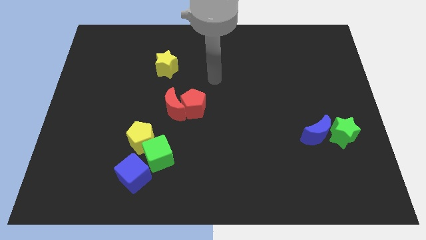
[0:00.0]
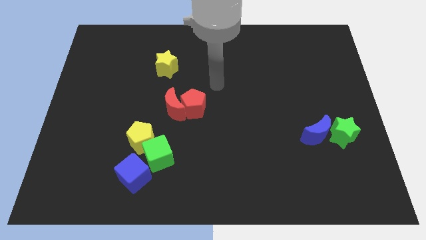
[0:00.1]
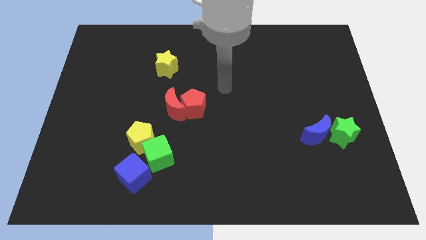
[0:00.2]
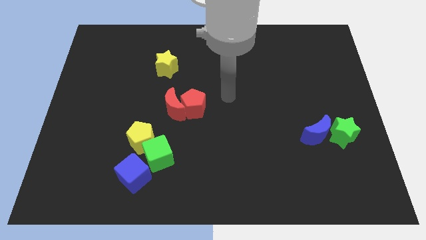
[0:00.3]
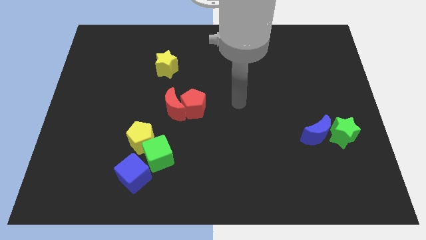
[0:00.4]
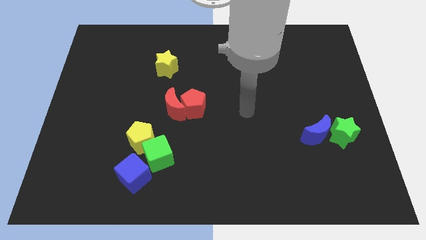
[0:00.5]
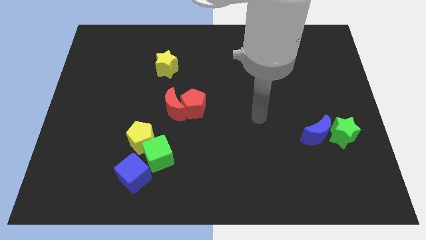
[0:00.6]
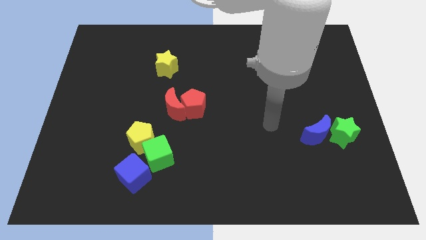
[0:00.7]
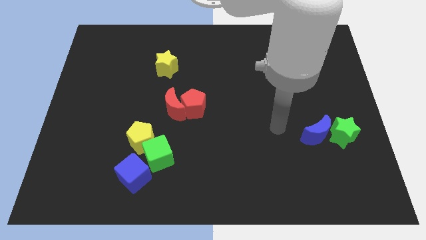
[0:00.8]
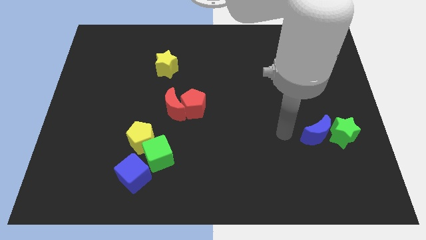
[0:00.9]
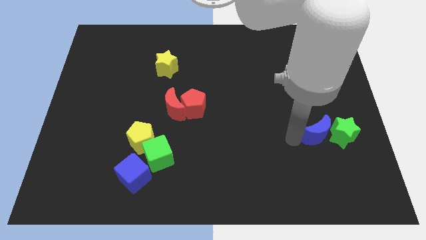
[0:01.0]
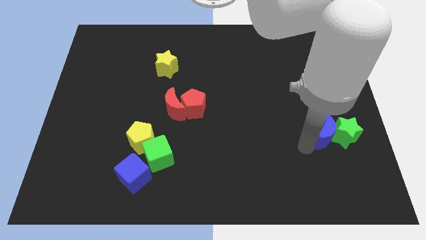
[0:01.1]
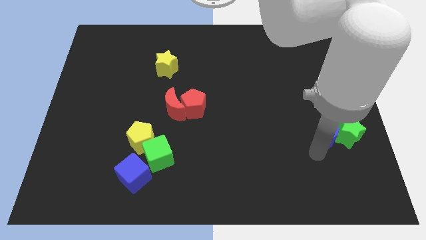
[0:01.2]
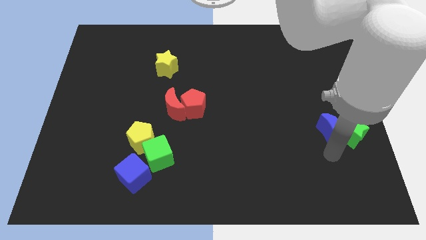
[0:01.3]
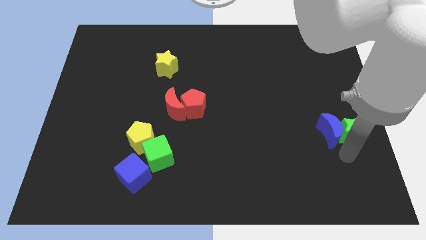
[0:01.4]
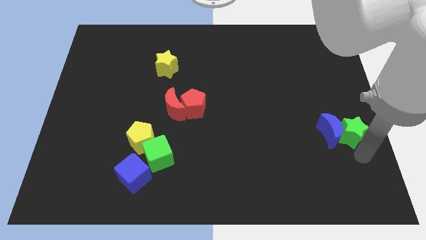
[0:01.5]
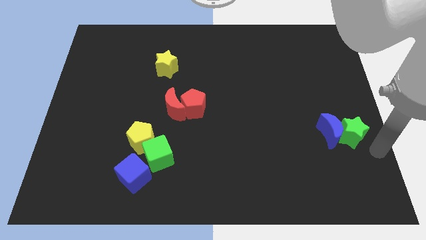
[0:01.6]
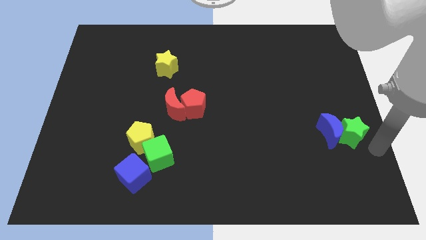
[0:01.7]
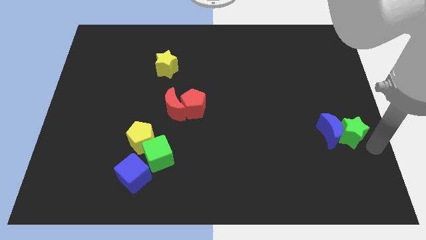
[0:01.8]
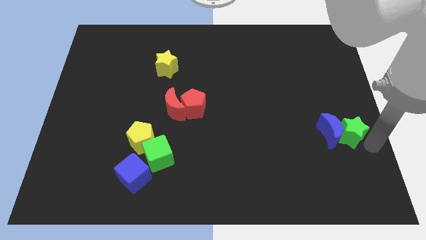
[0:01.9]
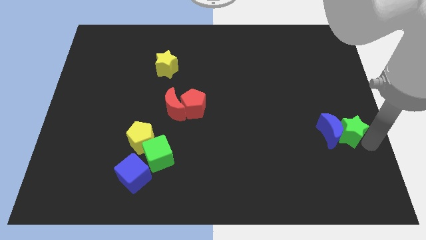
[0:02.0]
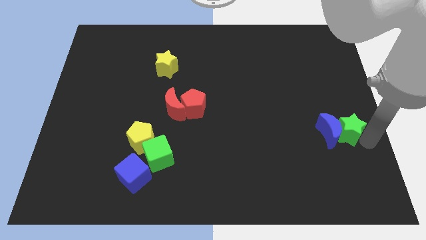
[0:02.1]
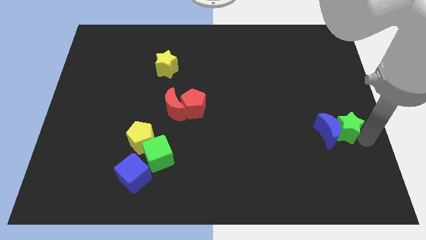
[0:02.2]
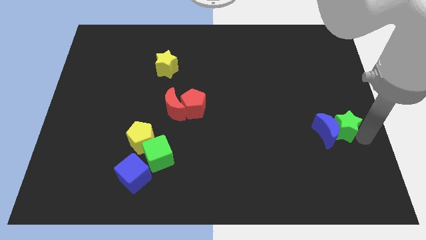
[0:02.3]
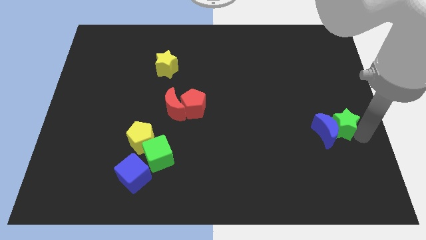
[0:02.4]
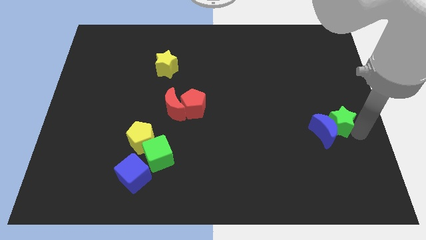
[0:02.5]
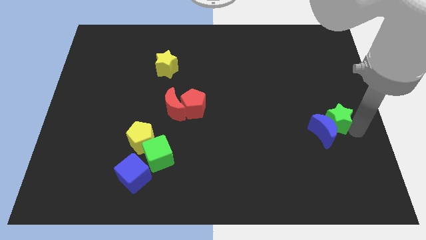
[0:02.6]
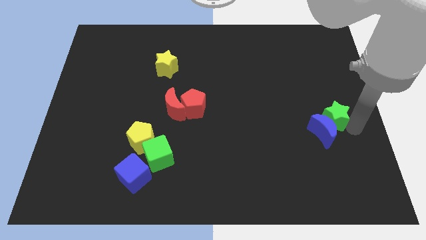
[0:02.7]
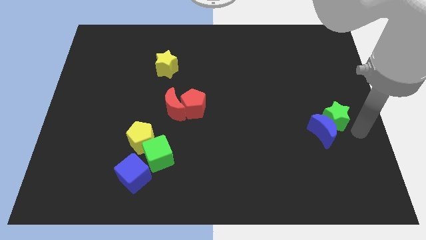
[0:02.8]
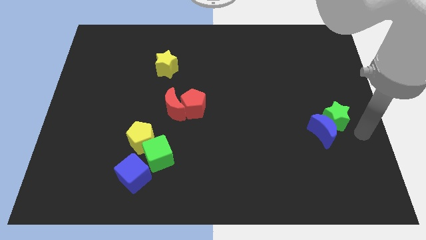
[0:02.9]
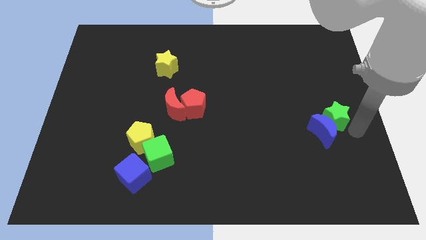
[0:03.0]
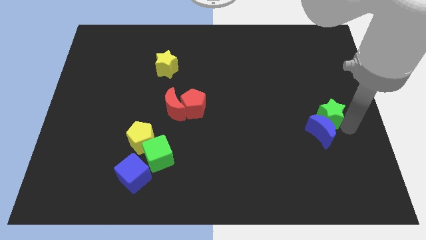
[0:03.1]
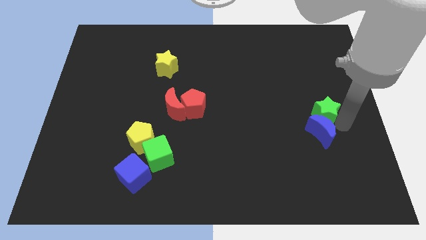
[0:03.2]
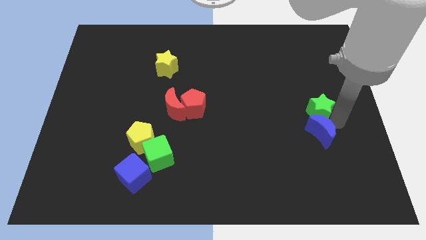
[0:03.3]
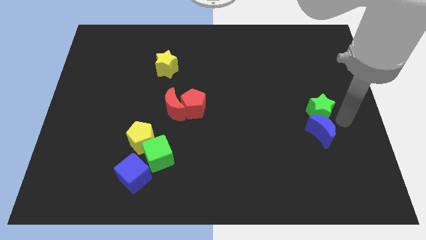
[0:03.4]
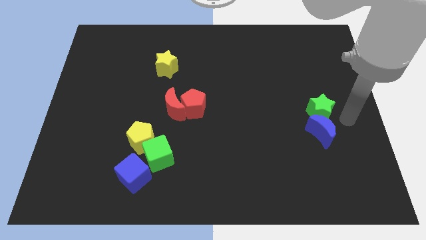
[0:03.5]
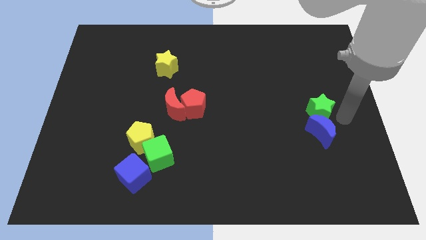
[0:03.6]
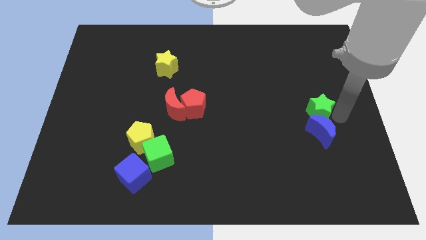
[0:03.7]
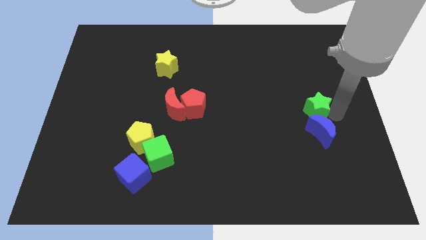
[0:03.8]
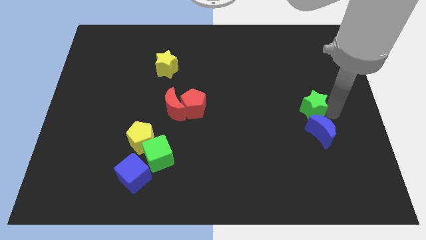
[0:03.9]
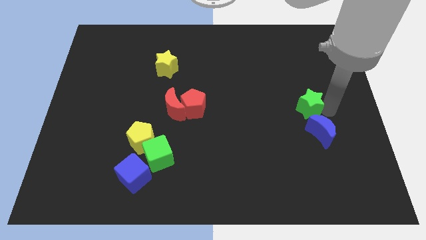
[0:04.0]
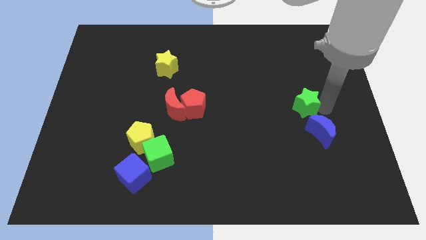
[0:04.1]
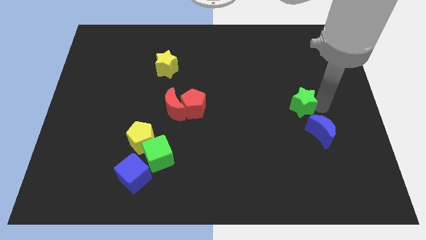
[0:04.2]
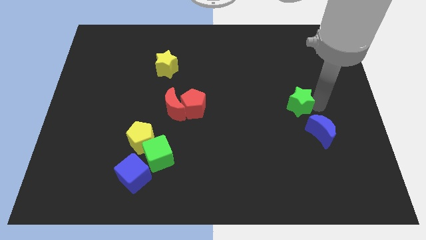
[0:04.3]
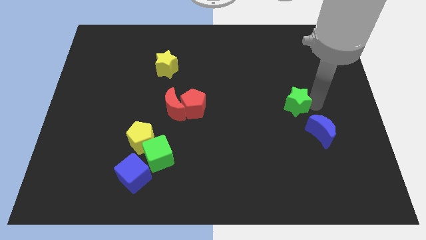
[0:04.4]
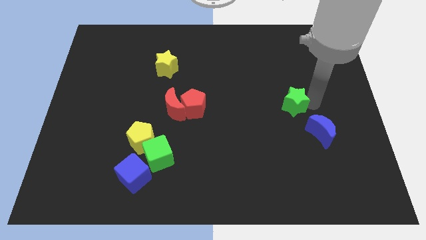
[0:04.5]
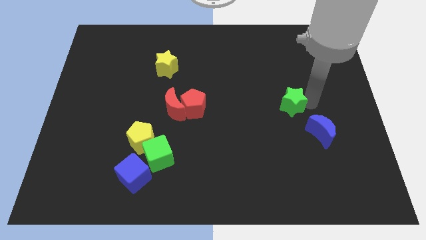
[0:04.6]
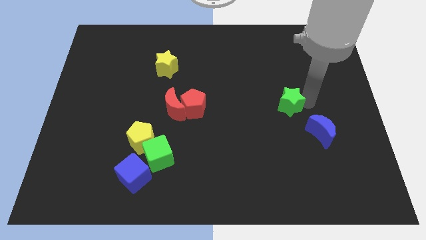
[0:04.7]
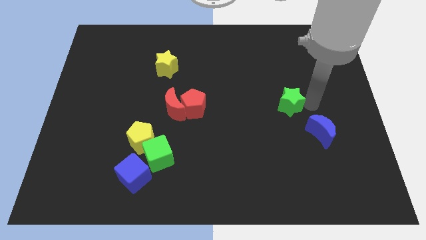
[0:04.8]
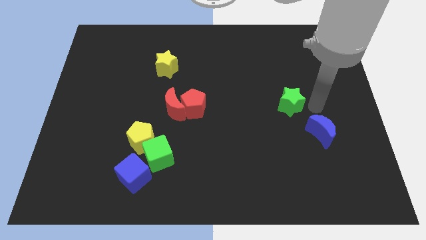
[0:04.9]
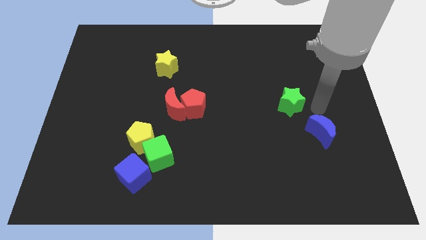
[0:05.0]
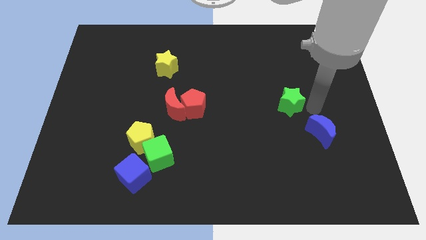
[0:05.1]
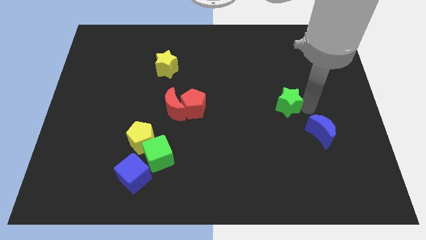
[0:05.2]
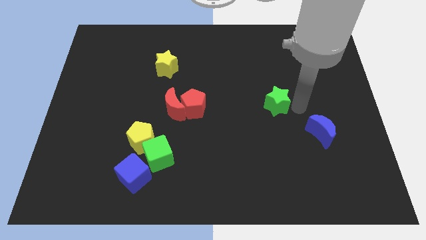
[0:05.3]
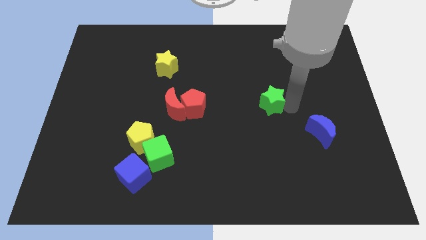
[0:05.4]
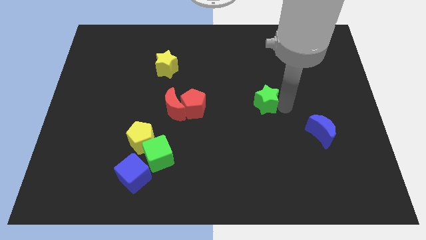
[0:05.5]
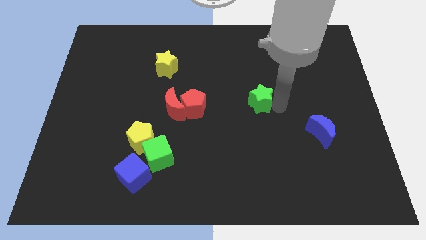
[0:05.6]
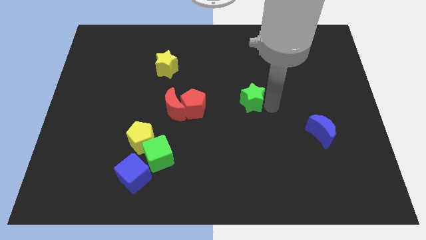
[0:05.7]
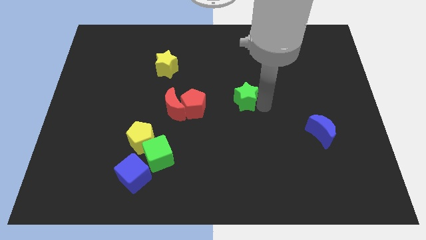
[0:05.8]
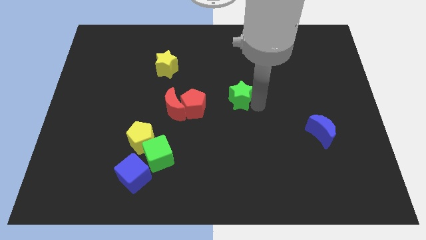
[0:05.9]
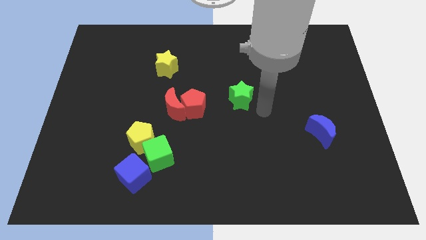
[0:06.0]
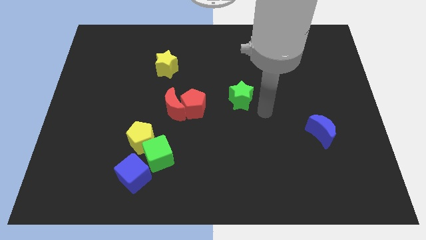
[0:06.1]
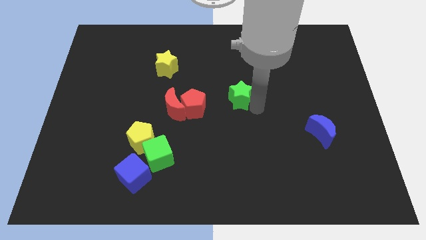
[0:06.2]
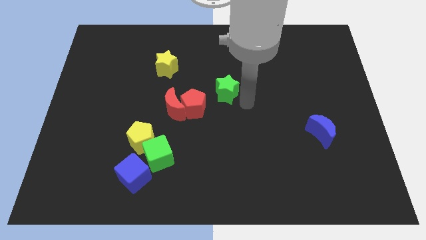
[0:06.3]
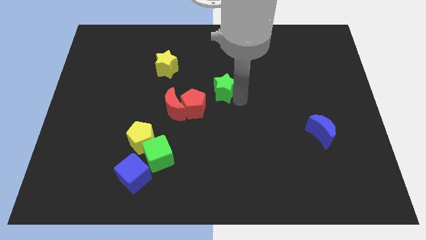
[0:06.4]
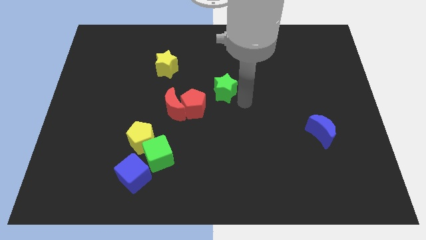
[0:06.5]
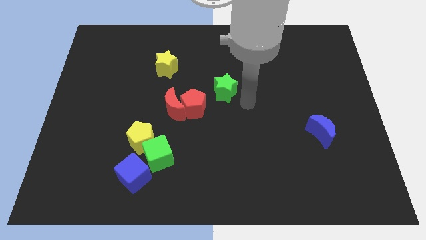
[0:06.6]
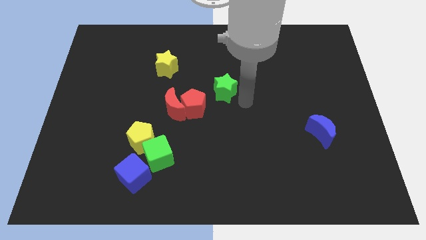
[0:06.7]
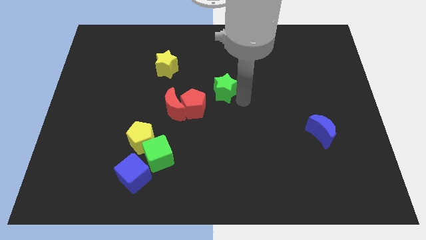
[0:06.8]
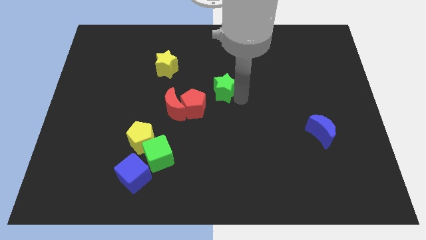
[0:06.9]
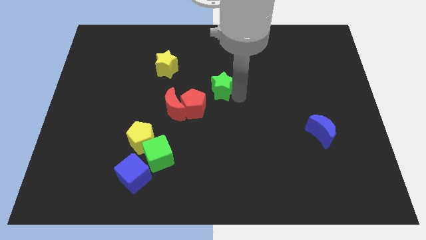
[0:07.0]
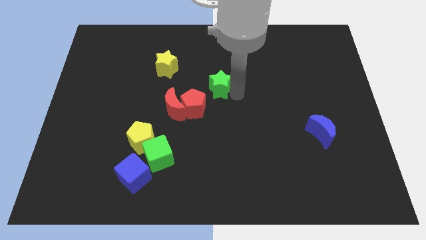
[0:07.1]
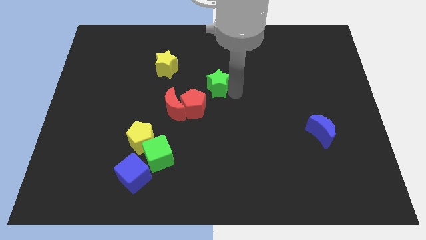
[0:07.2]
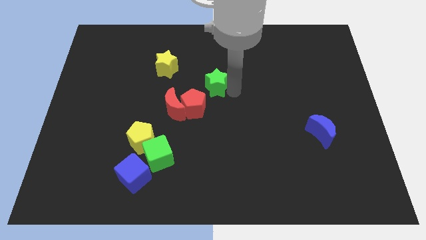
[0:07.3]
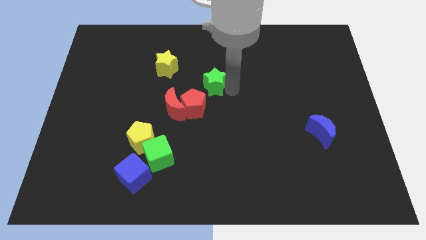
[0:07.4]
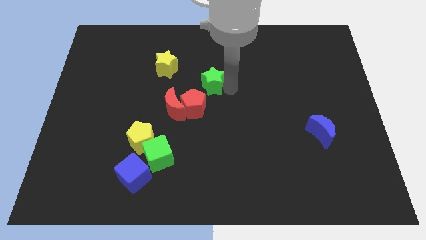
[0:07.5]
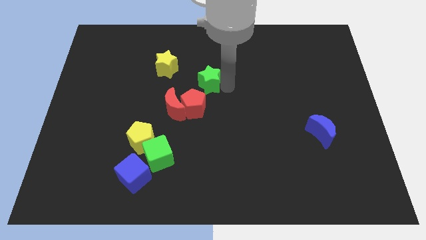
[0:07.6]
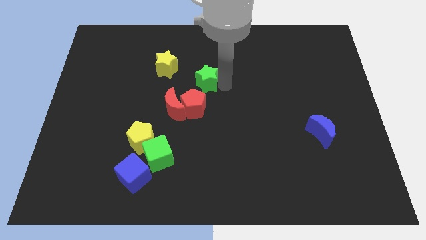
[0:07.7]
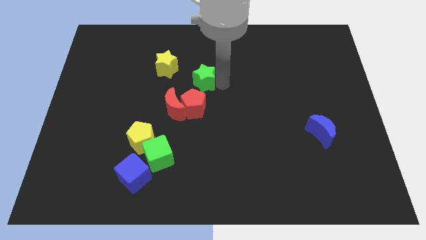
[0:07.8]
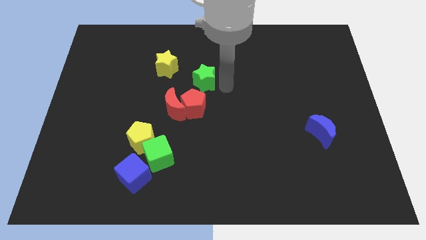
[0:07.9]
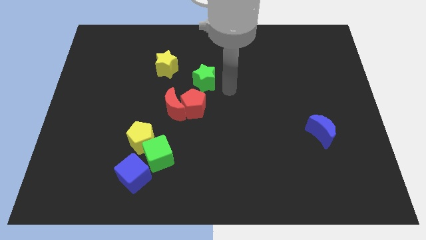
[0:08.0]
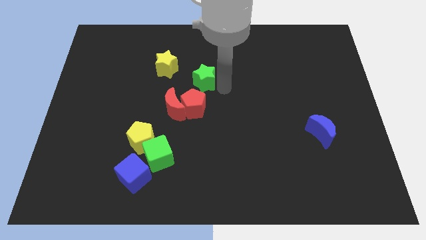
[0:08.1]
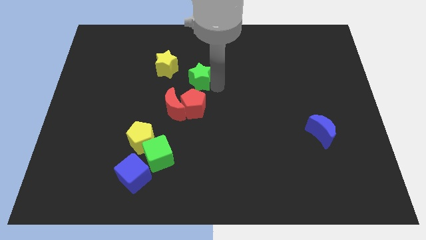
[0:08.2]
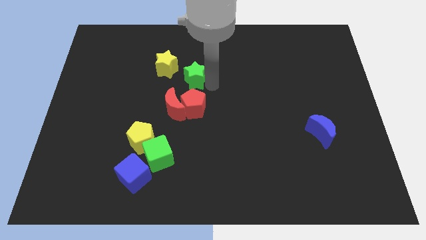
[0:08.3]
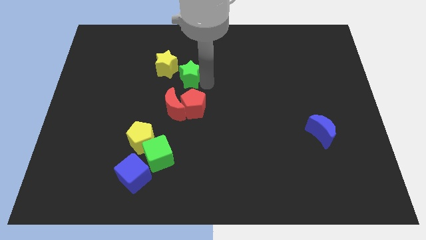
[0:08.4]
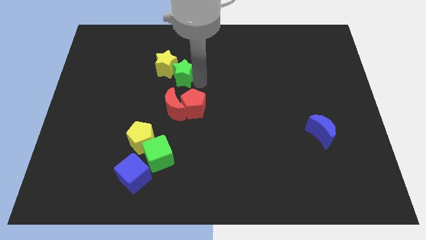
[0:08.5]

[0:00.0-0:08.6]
push the green star towards the yellow star
